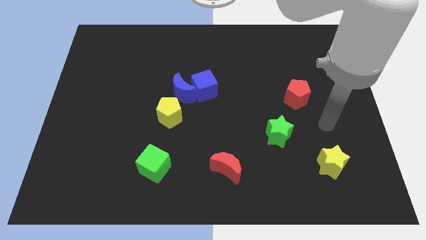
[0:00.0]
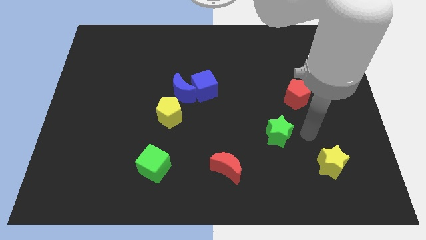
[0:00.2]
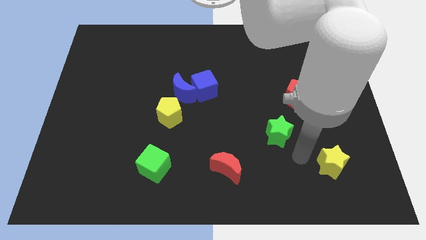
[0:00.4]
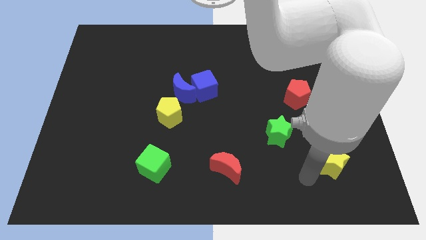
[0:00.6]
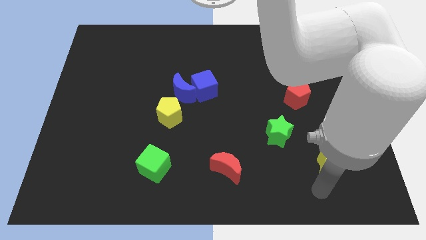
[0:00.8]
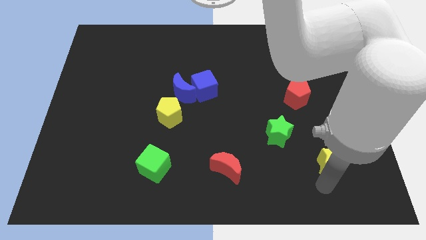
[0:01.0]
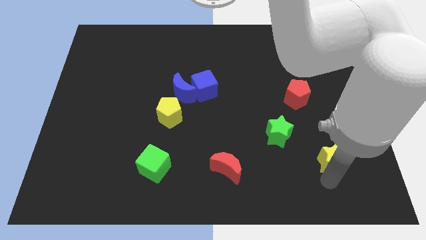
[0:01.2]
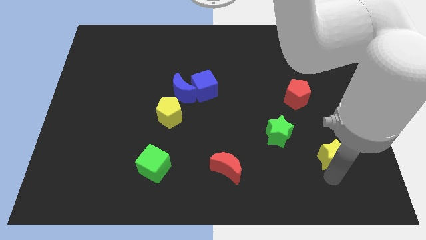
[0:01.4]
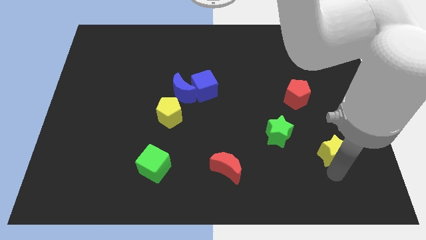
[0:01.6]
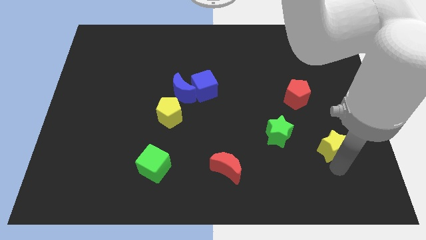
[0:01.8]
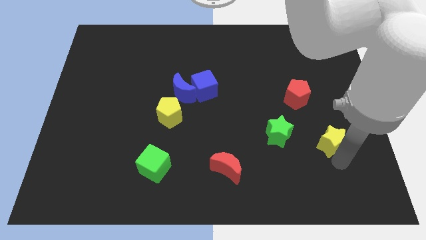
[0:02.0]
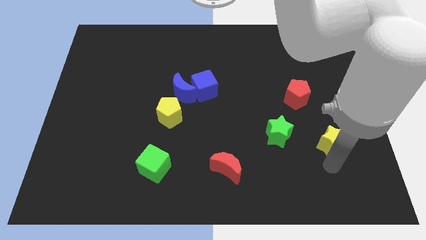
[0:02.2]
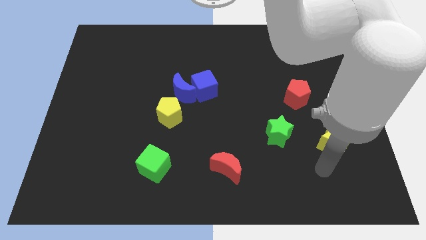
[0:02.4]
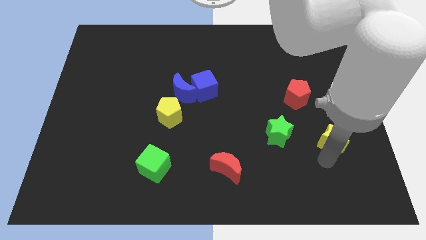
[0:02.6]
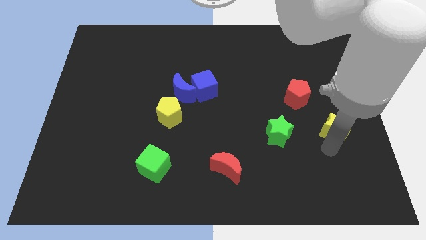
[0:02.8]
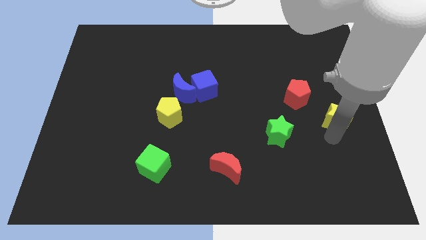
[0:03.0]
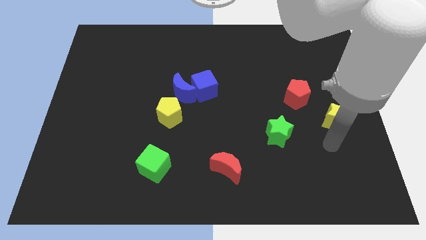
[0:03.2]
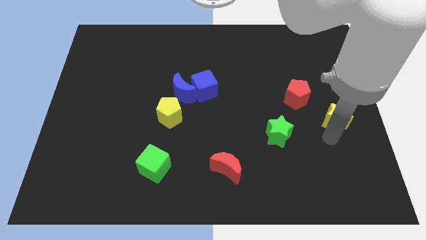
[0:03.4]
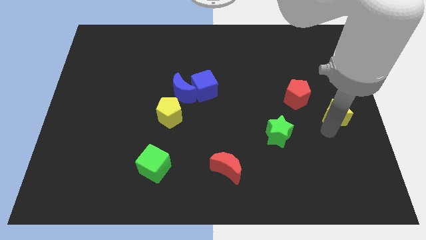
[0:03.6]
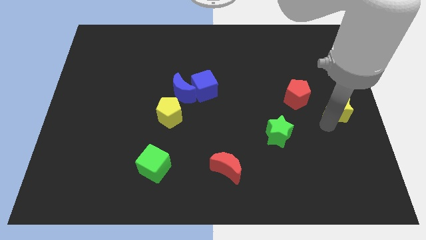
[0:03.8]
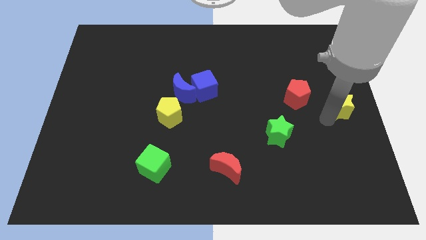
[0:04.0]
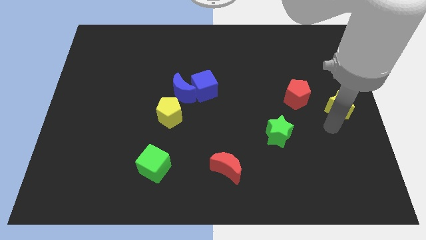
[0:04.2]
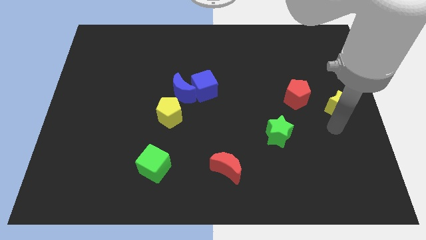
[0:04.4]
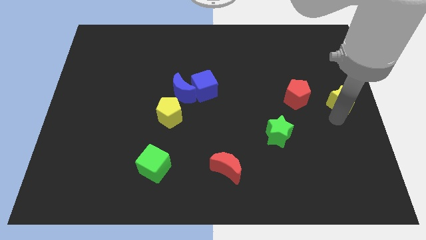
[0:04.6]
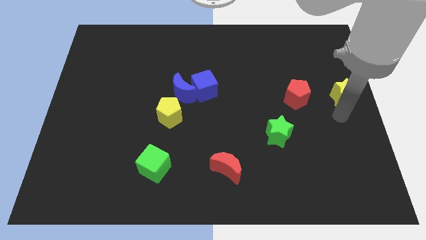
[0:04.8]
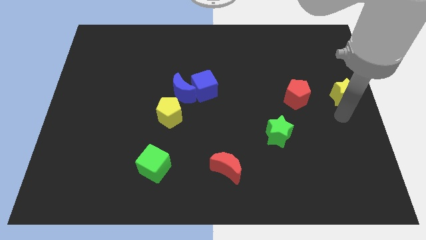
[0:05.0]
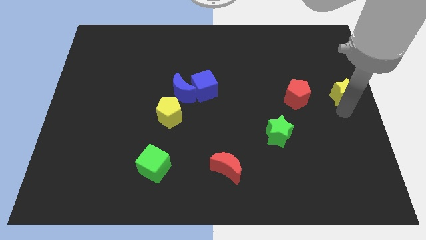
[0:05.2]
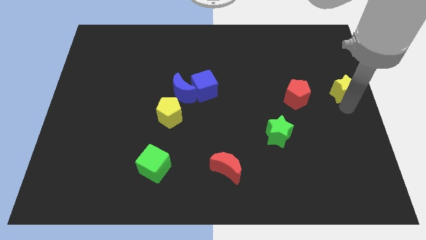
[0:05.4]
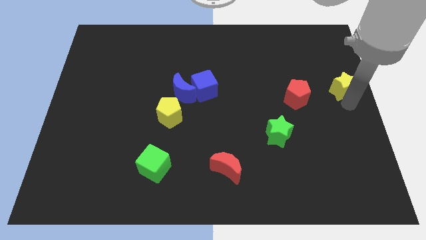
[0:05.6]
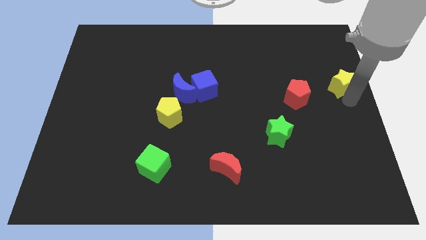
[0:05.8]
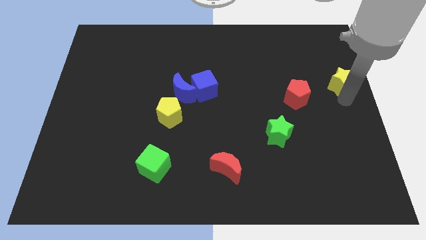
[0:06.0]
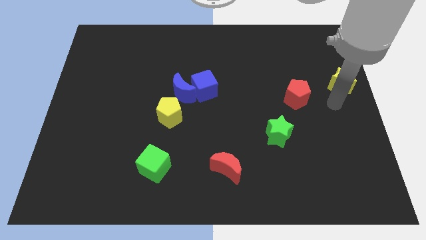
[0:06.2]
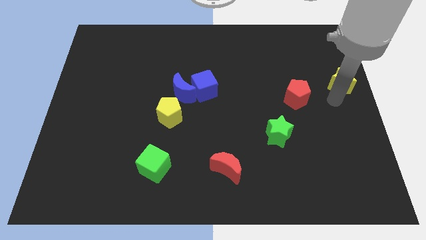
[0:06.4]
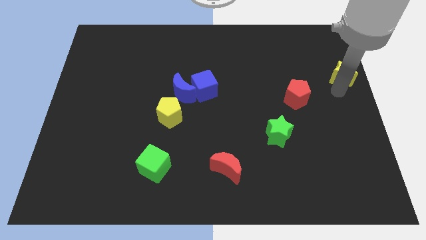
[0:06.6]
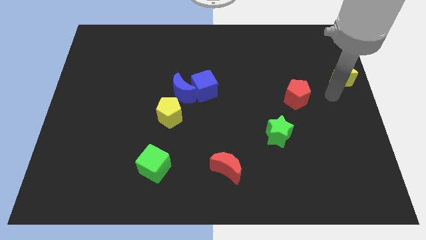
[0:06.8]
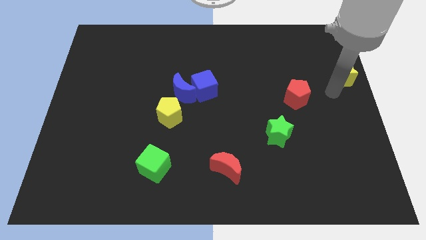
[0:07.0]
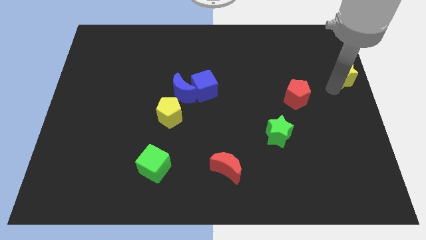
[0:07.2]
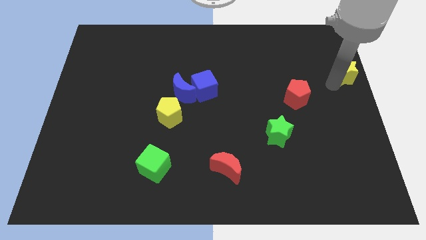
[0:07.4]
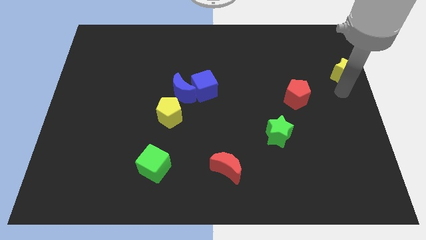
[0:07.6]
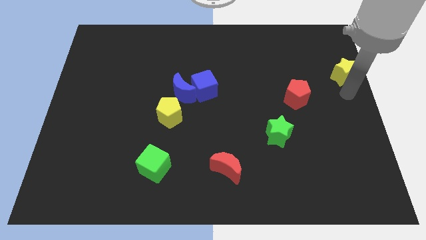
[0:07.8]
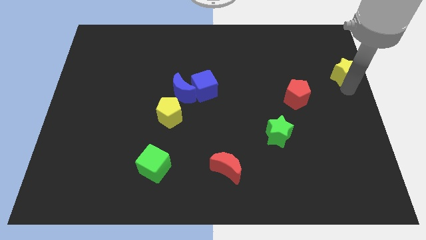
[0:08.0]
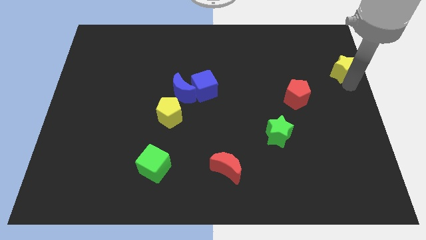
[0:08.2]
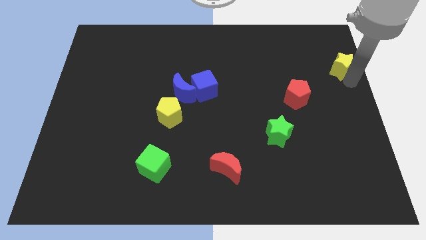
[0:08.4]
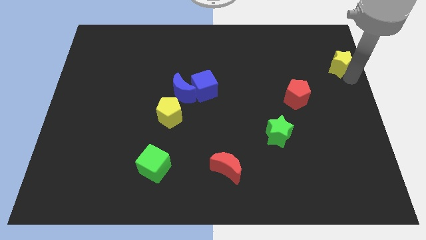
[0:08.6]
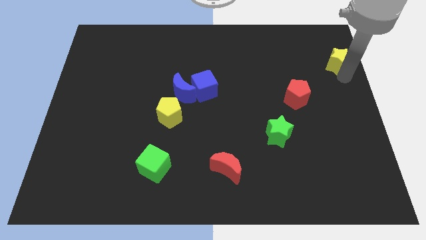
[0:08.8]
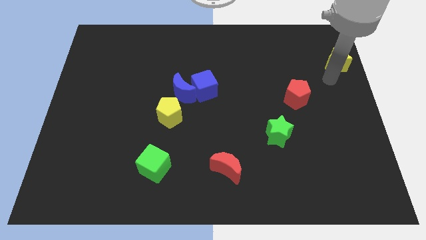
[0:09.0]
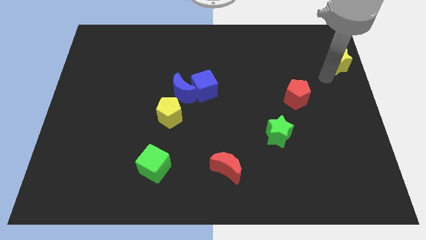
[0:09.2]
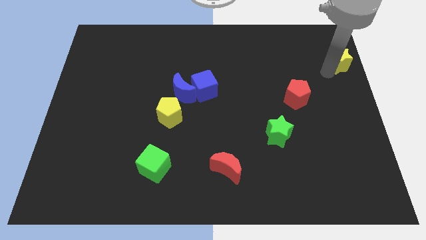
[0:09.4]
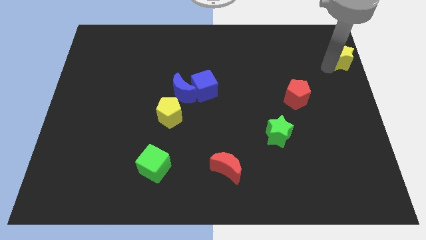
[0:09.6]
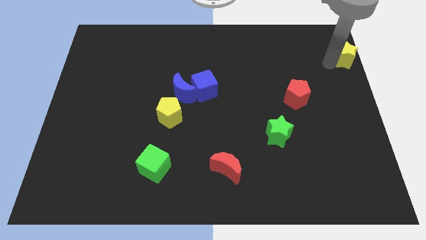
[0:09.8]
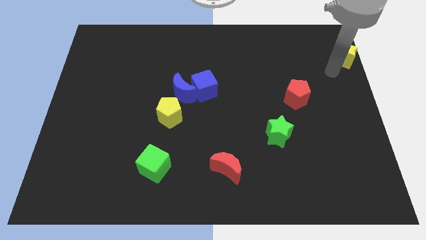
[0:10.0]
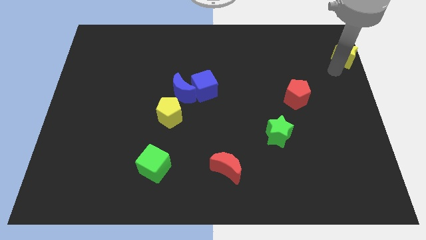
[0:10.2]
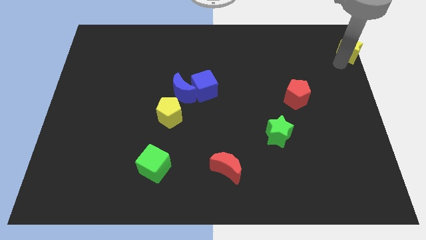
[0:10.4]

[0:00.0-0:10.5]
put the yellow star to the top right corner

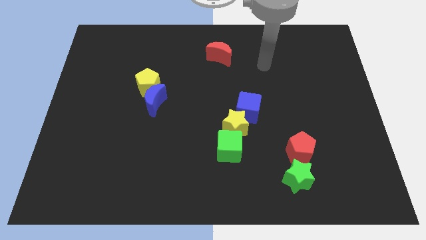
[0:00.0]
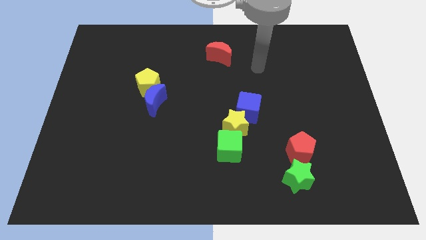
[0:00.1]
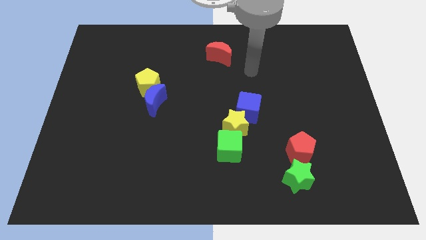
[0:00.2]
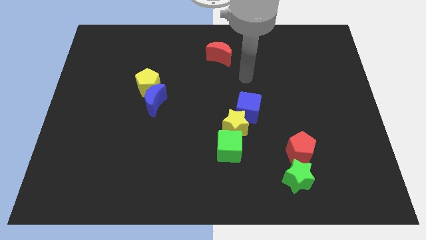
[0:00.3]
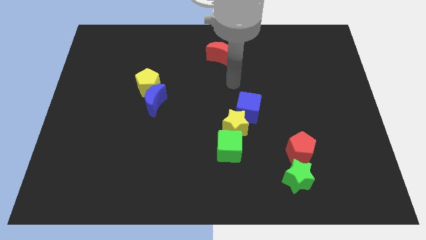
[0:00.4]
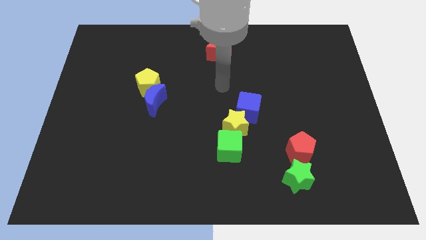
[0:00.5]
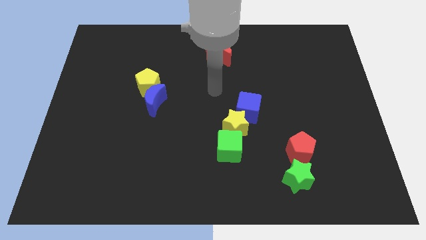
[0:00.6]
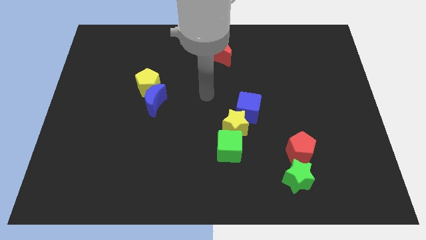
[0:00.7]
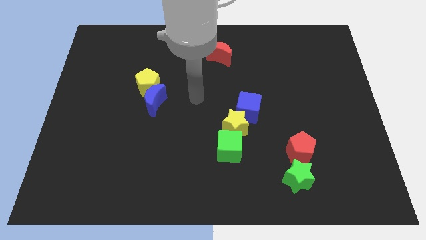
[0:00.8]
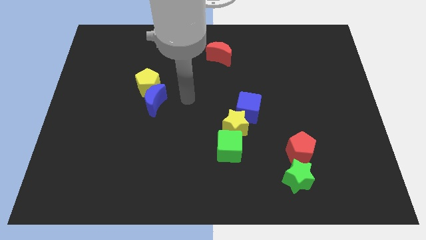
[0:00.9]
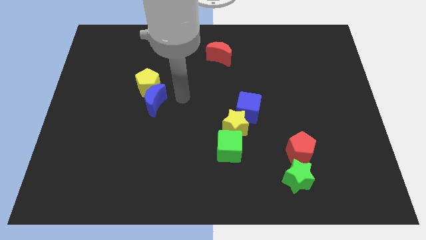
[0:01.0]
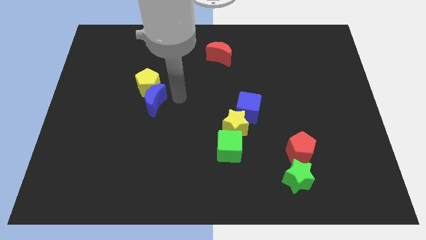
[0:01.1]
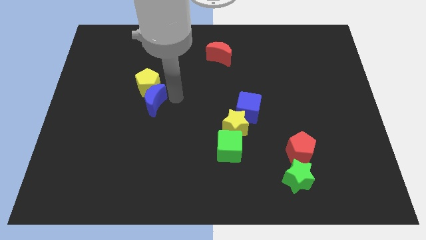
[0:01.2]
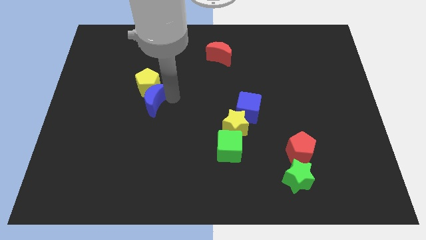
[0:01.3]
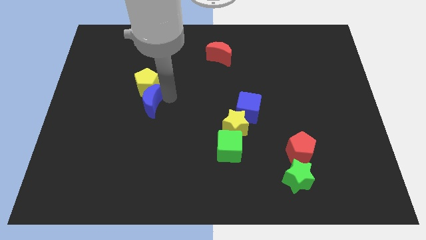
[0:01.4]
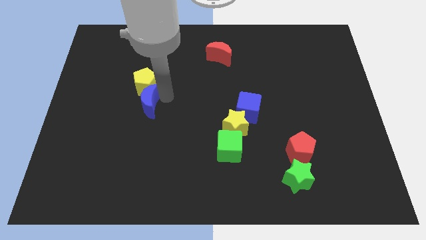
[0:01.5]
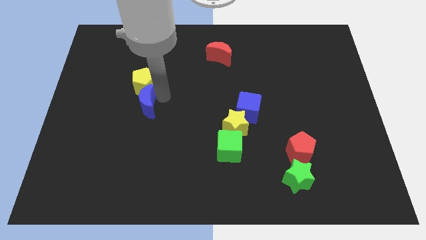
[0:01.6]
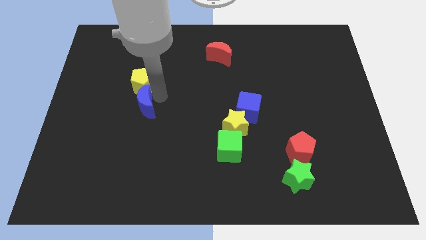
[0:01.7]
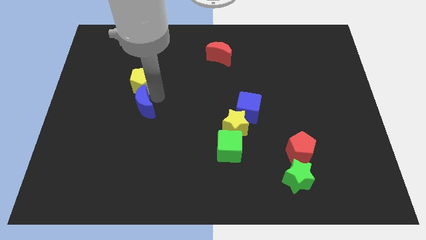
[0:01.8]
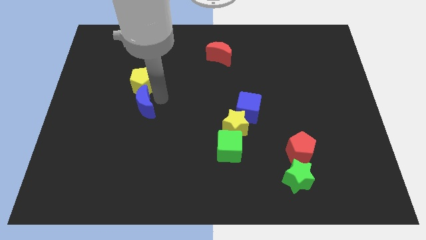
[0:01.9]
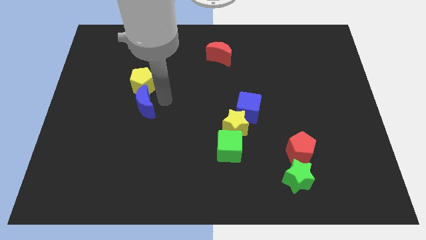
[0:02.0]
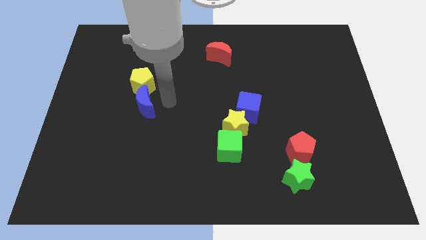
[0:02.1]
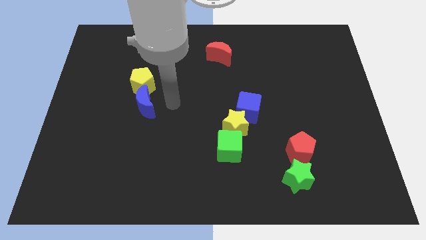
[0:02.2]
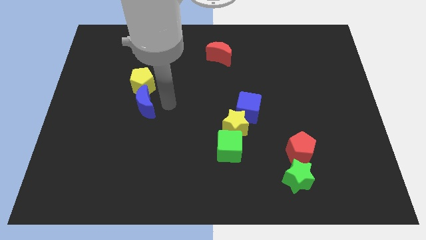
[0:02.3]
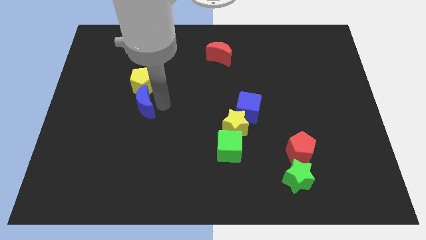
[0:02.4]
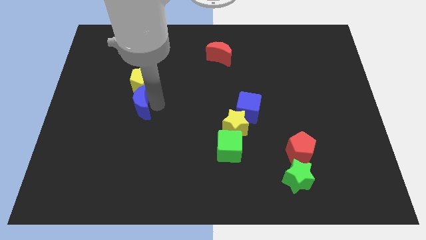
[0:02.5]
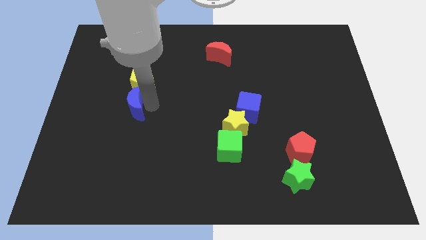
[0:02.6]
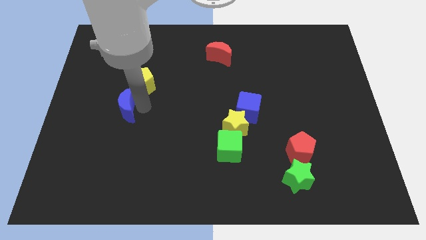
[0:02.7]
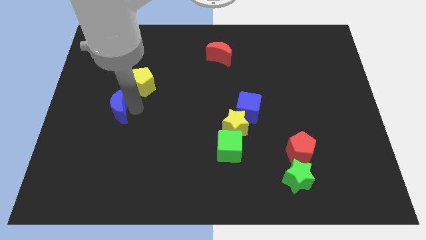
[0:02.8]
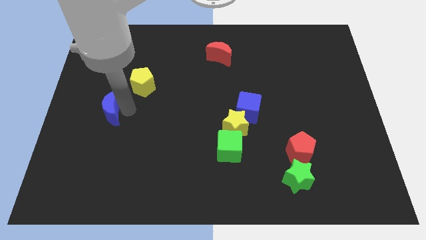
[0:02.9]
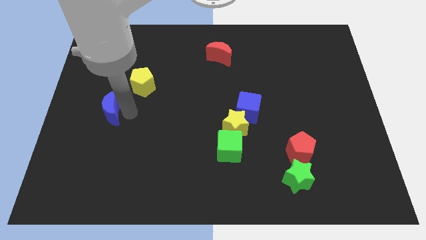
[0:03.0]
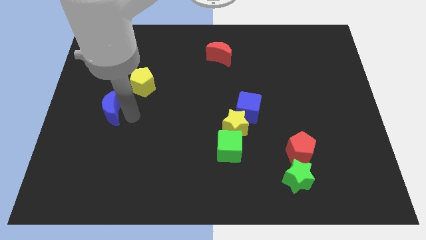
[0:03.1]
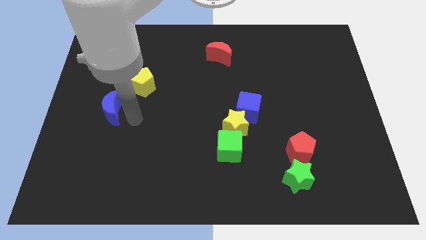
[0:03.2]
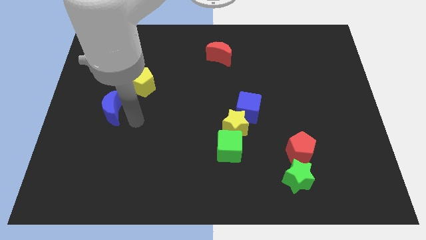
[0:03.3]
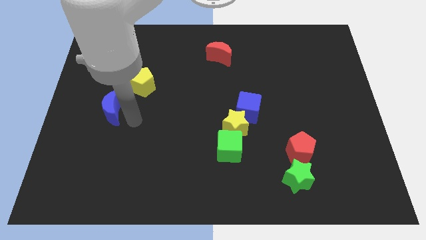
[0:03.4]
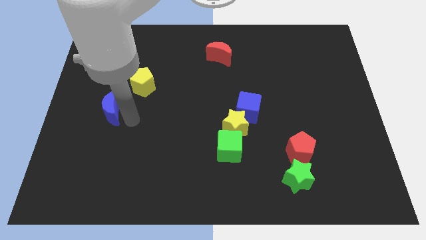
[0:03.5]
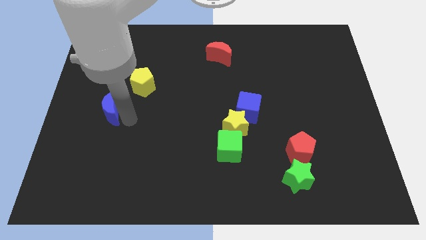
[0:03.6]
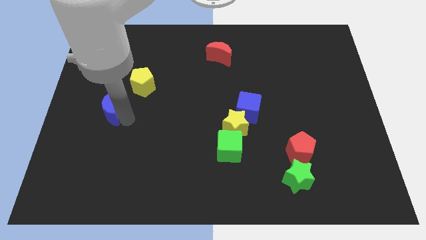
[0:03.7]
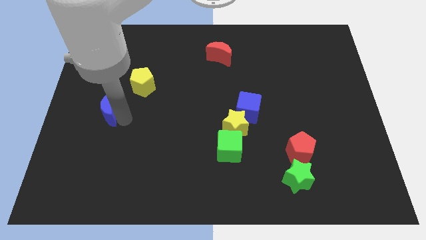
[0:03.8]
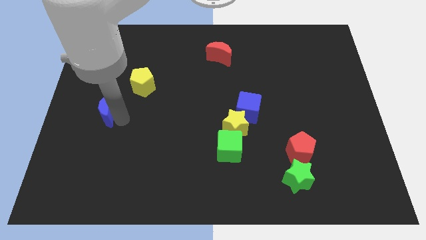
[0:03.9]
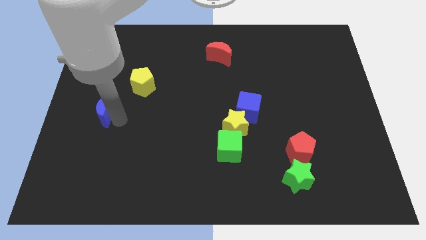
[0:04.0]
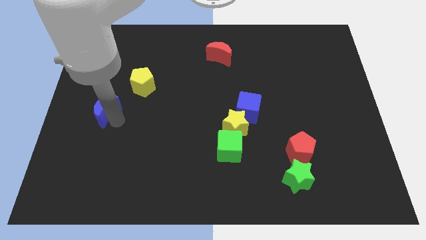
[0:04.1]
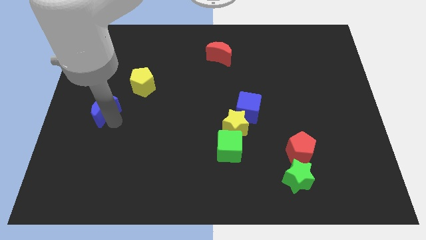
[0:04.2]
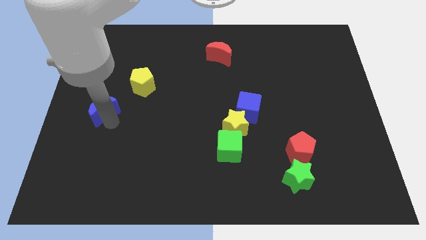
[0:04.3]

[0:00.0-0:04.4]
move the blue moon to the left side
